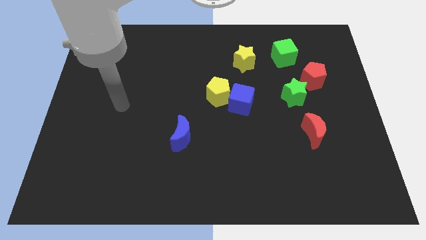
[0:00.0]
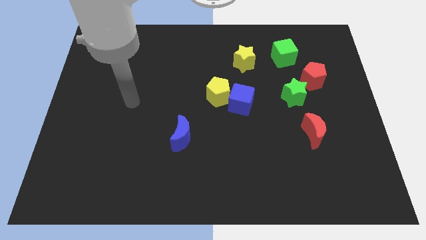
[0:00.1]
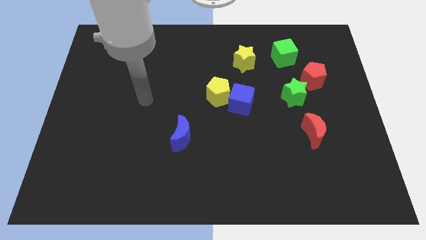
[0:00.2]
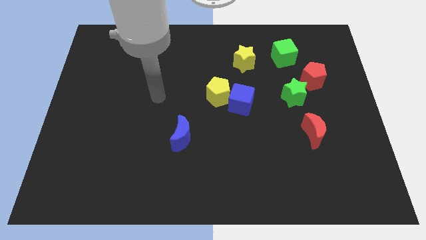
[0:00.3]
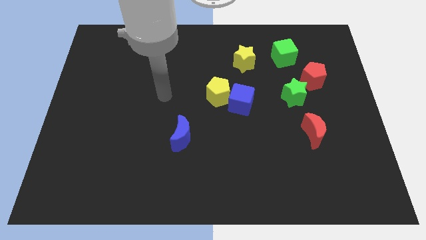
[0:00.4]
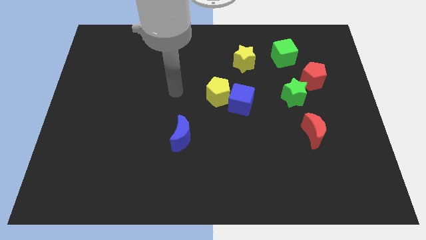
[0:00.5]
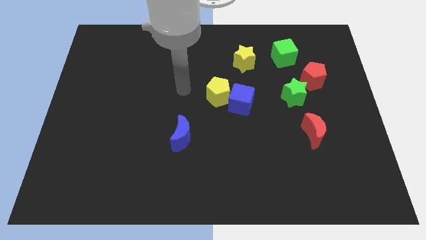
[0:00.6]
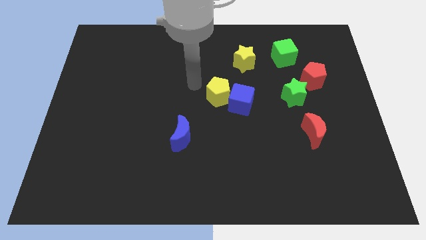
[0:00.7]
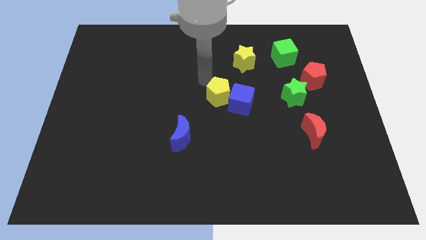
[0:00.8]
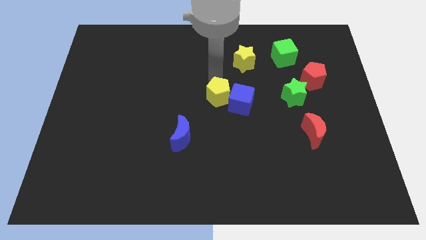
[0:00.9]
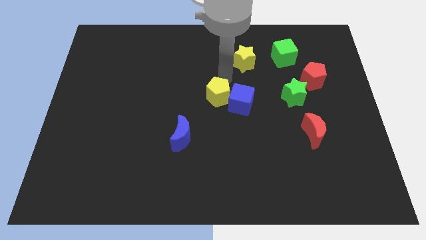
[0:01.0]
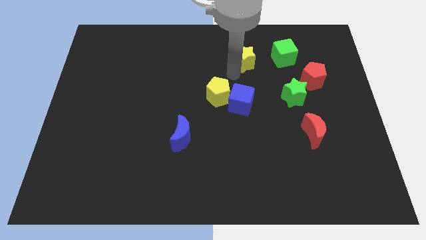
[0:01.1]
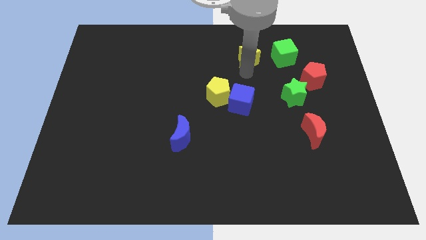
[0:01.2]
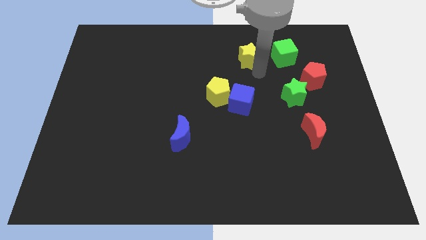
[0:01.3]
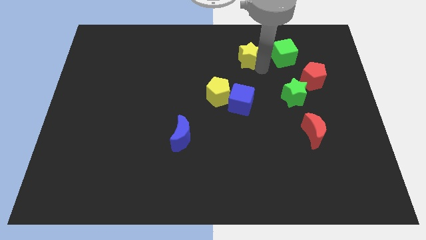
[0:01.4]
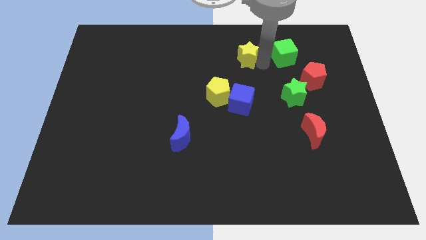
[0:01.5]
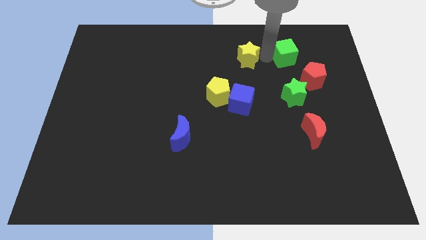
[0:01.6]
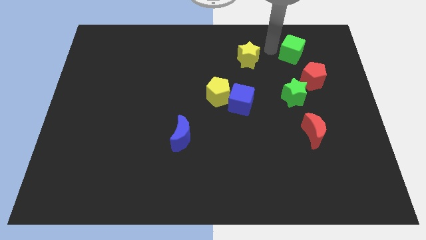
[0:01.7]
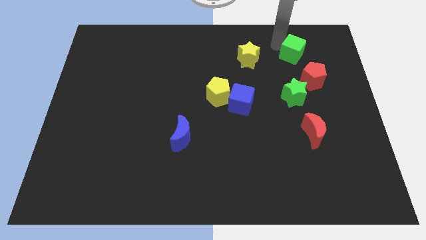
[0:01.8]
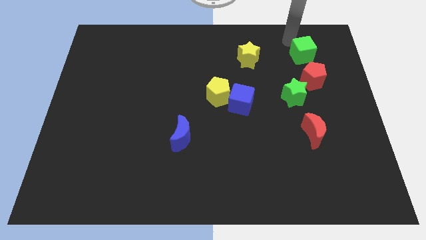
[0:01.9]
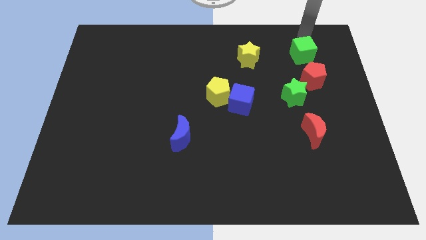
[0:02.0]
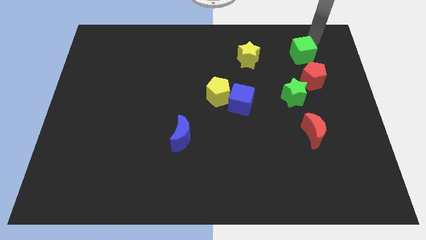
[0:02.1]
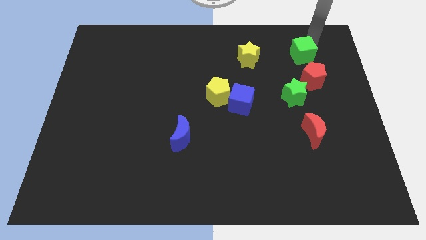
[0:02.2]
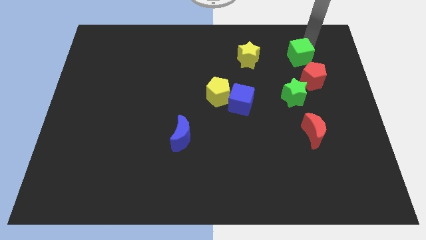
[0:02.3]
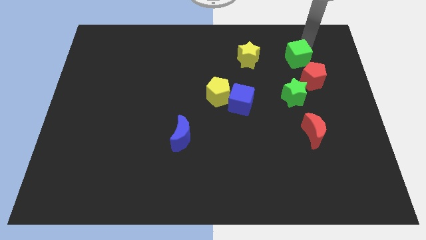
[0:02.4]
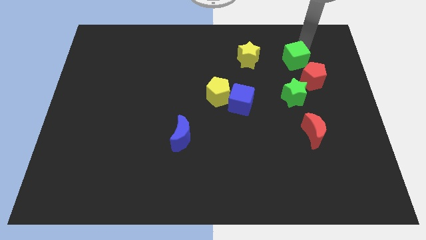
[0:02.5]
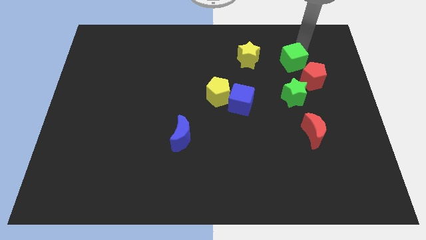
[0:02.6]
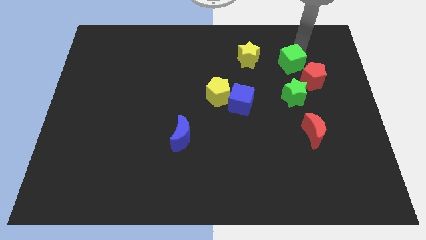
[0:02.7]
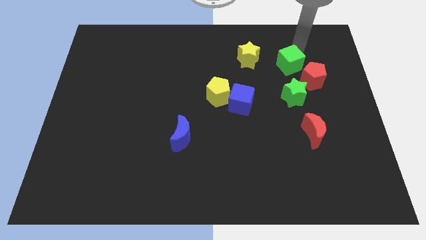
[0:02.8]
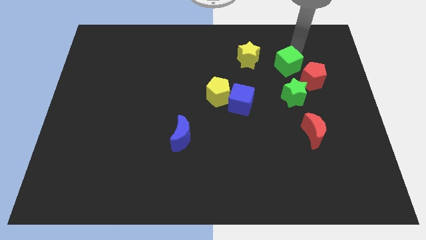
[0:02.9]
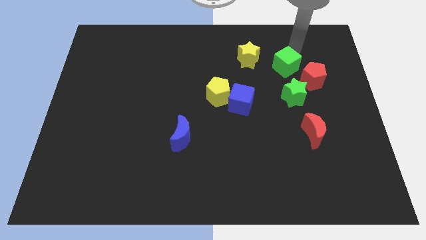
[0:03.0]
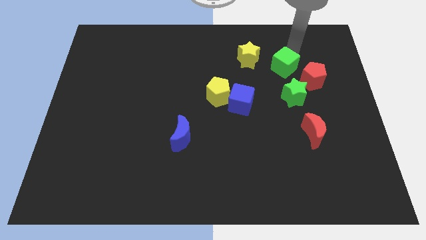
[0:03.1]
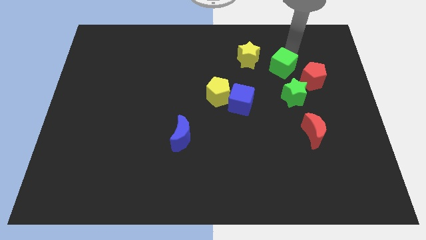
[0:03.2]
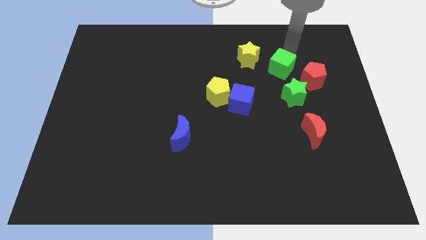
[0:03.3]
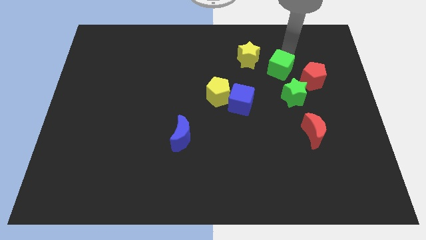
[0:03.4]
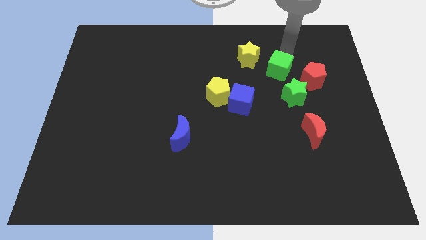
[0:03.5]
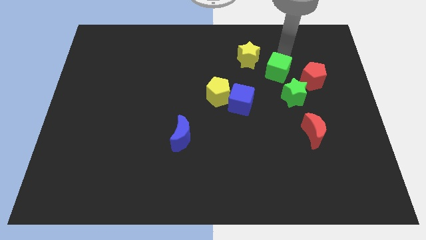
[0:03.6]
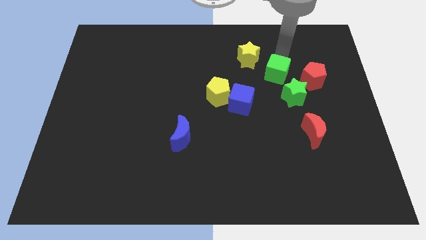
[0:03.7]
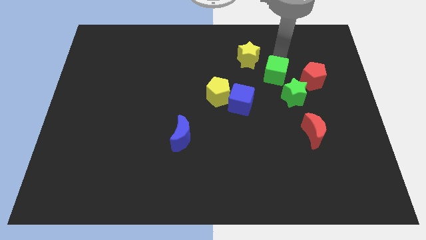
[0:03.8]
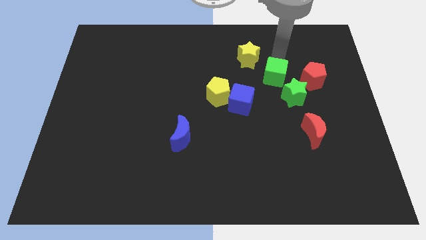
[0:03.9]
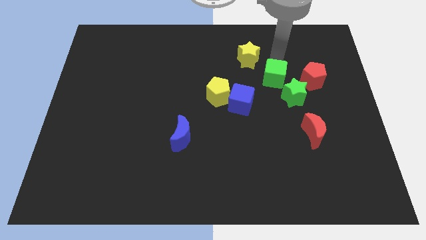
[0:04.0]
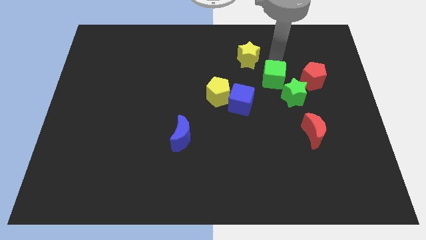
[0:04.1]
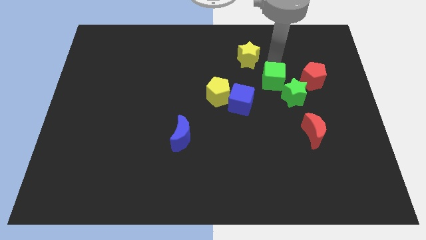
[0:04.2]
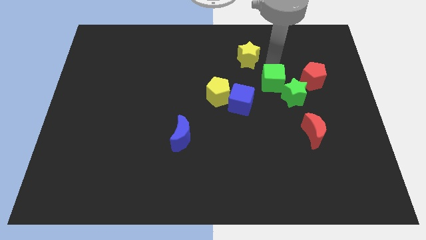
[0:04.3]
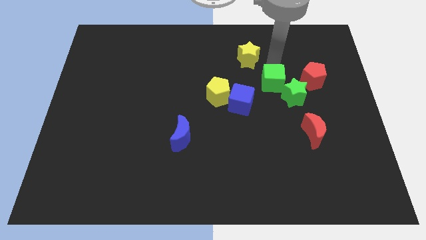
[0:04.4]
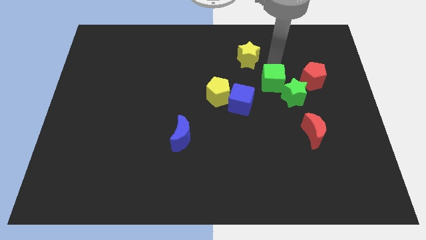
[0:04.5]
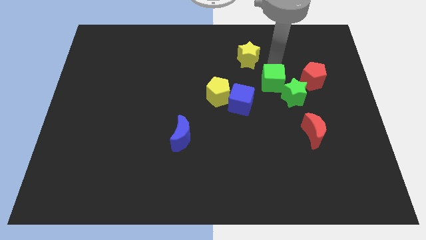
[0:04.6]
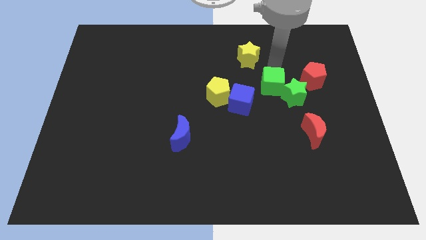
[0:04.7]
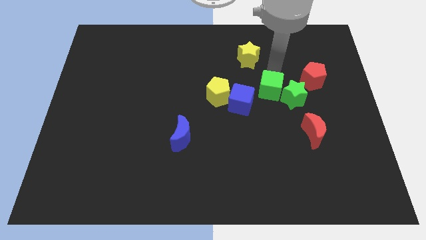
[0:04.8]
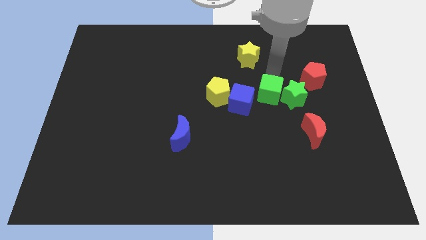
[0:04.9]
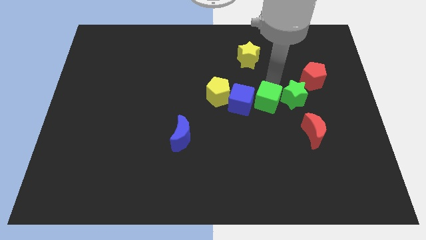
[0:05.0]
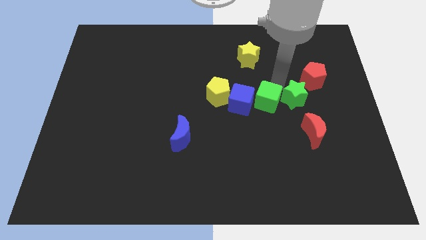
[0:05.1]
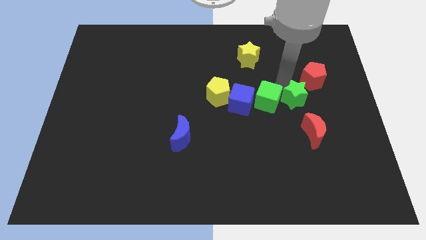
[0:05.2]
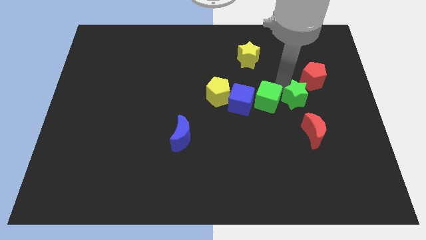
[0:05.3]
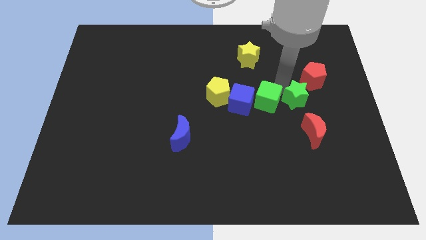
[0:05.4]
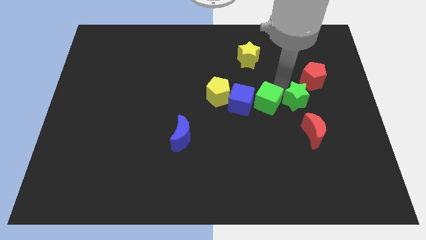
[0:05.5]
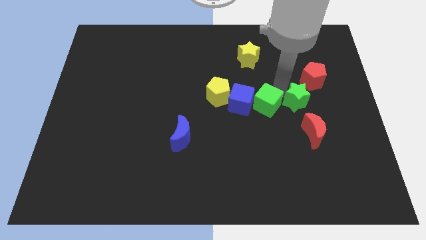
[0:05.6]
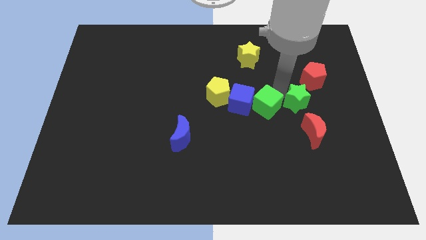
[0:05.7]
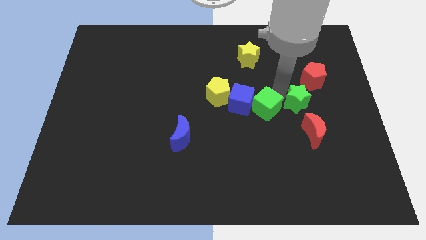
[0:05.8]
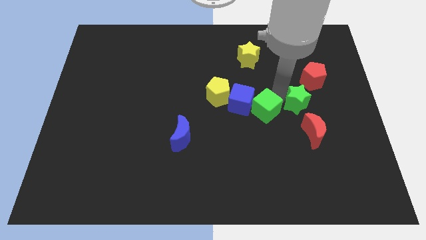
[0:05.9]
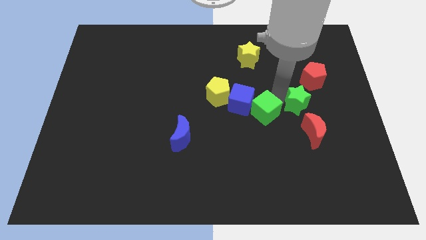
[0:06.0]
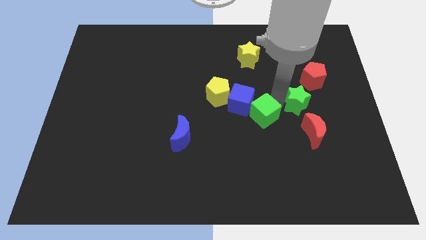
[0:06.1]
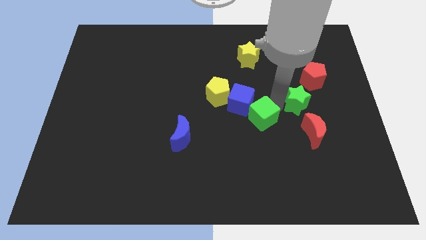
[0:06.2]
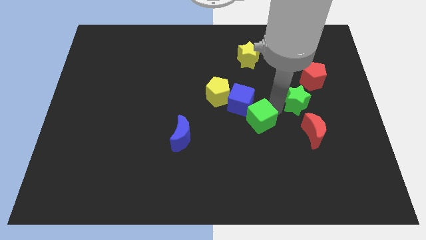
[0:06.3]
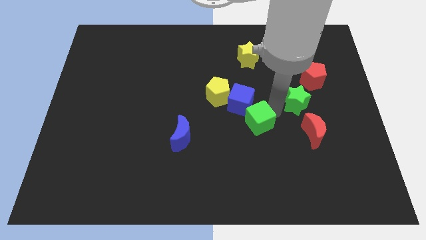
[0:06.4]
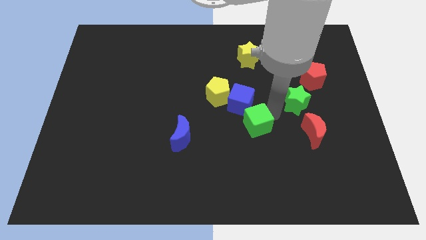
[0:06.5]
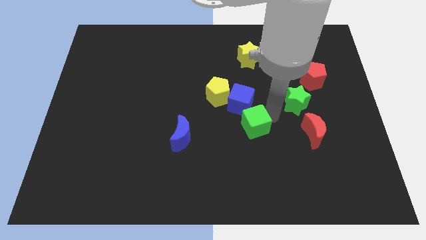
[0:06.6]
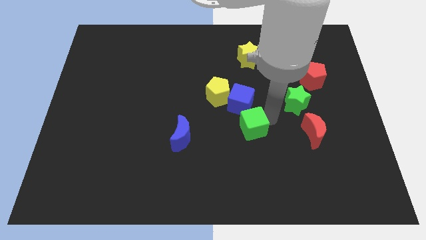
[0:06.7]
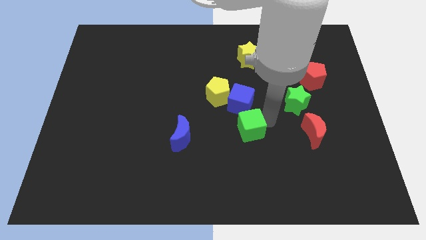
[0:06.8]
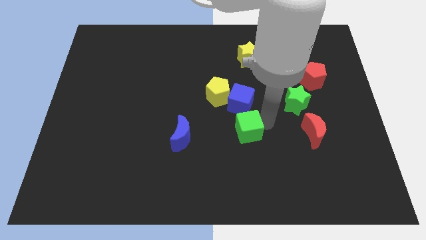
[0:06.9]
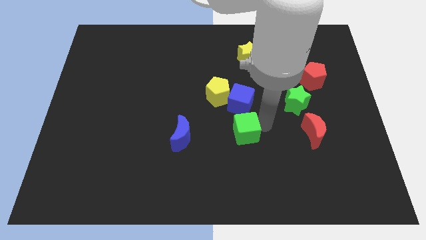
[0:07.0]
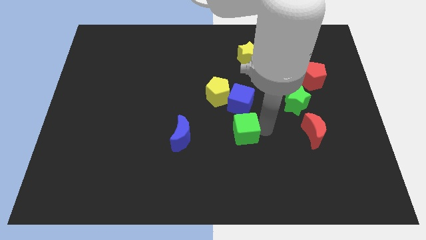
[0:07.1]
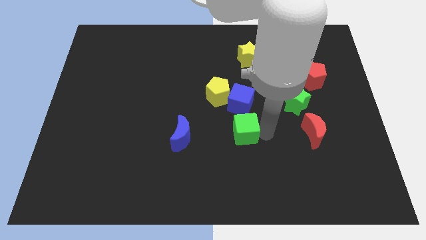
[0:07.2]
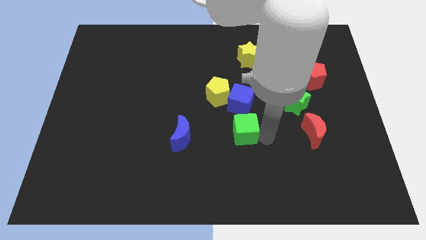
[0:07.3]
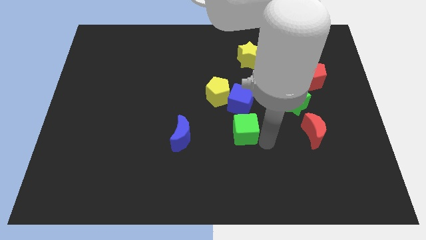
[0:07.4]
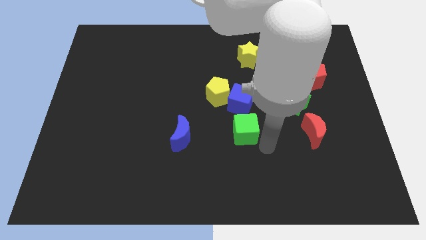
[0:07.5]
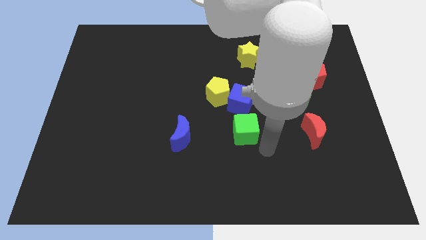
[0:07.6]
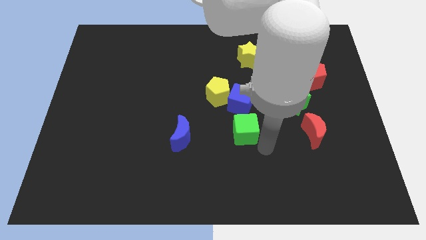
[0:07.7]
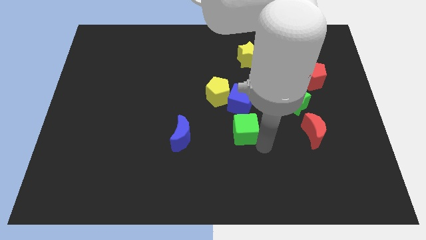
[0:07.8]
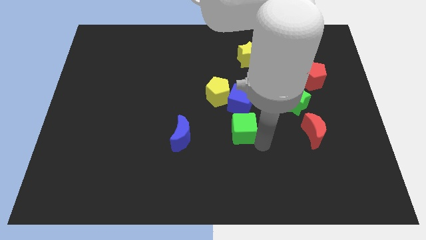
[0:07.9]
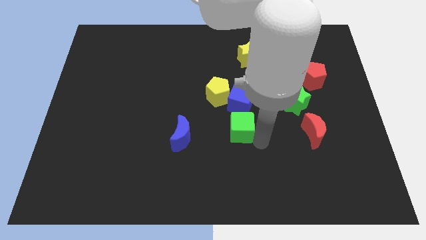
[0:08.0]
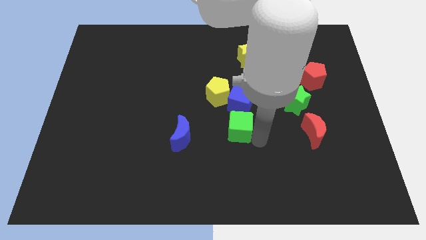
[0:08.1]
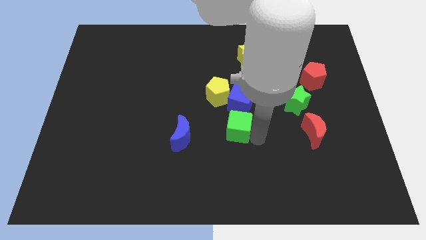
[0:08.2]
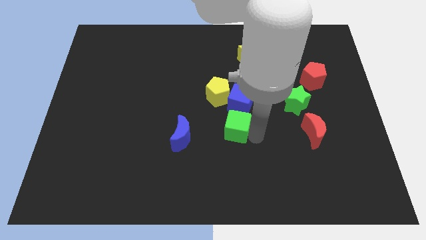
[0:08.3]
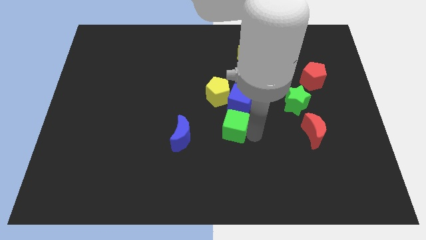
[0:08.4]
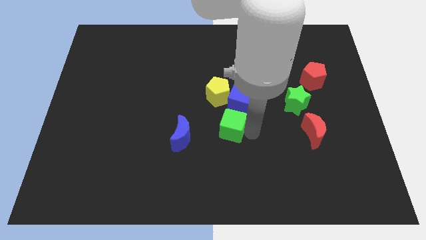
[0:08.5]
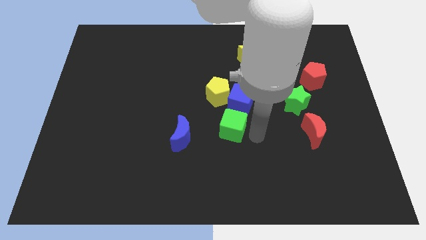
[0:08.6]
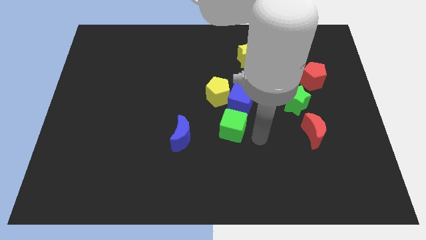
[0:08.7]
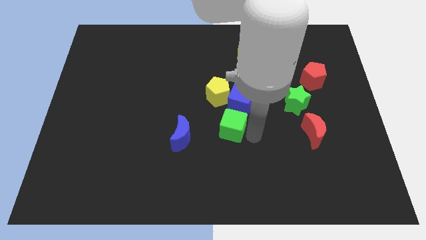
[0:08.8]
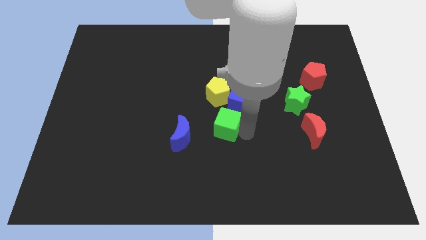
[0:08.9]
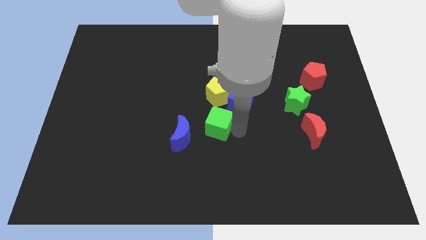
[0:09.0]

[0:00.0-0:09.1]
put the green cube diagonally up and to the right of the blue moon
